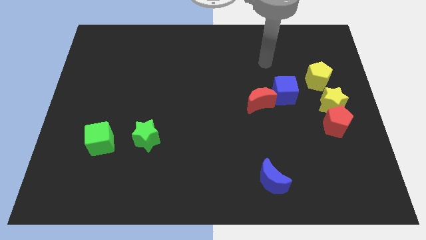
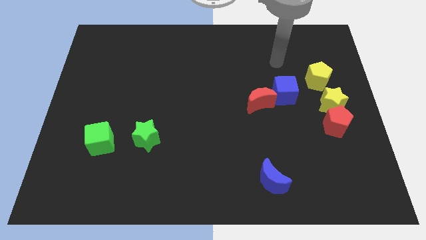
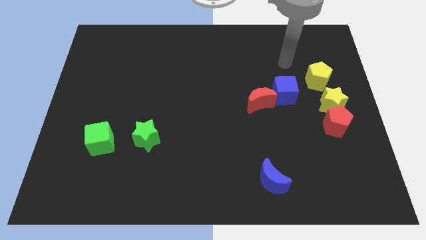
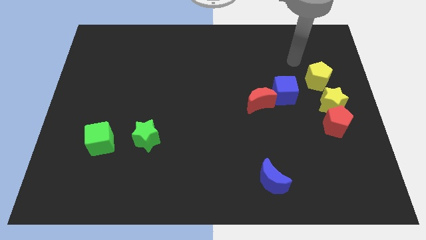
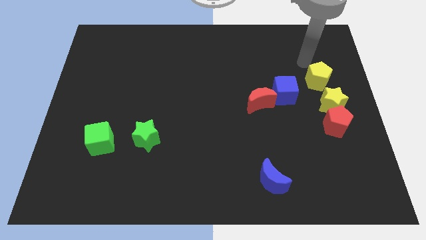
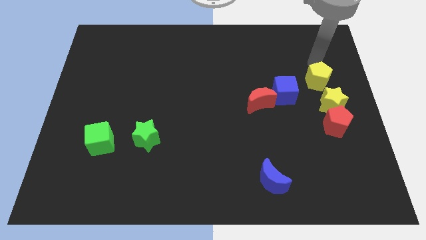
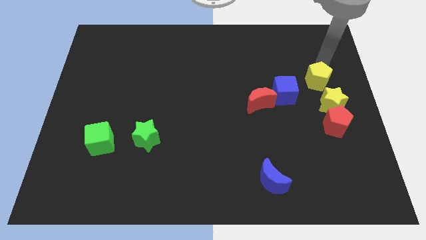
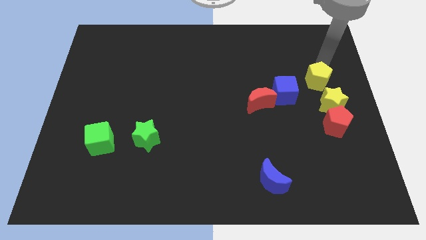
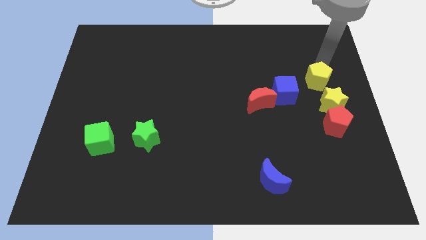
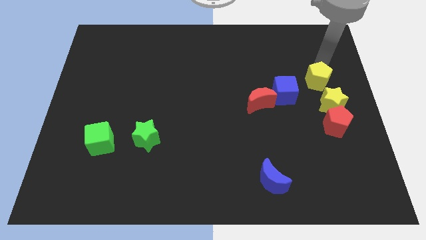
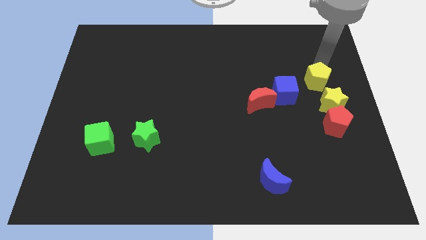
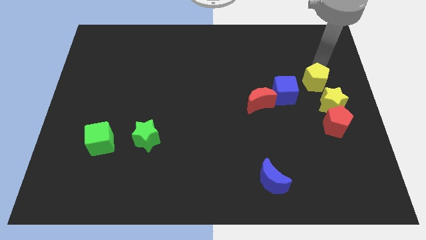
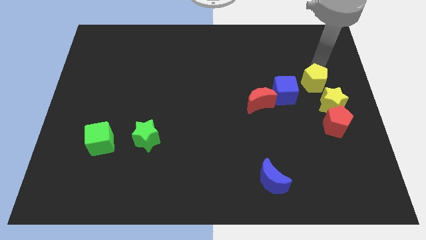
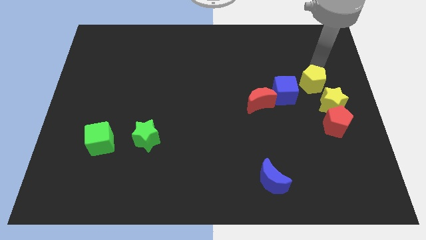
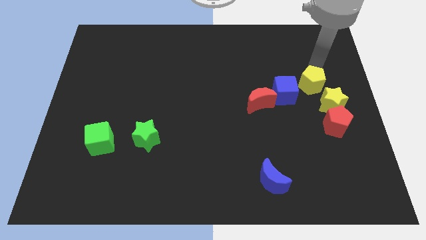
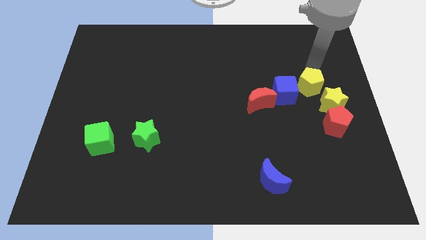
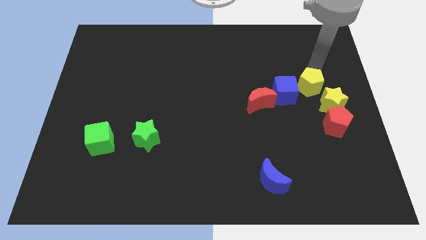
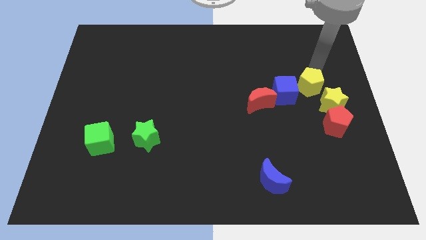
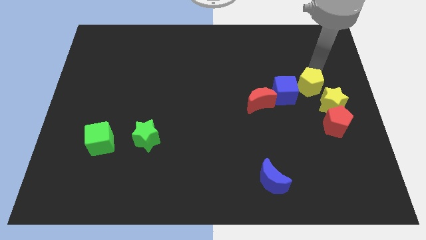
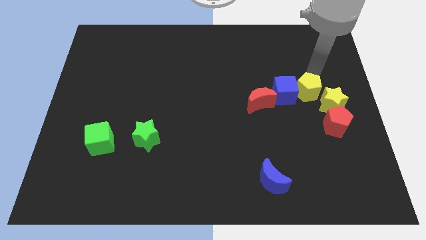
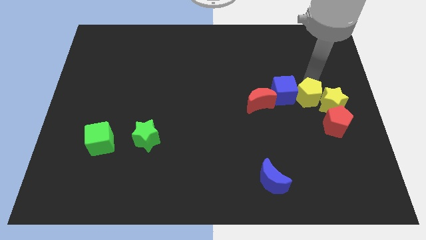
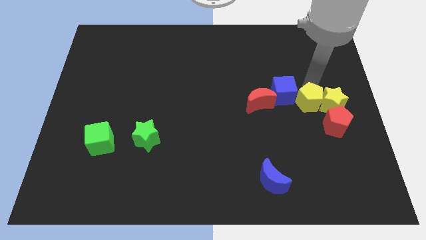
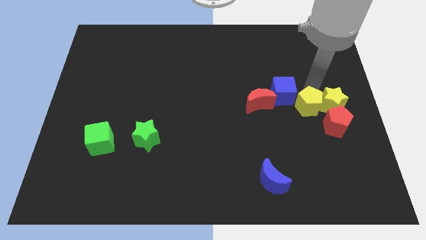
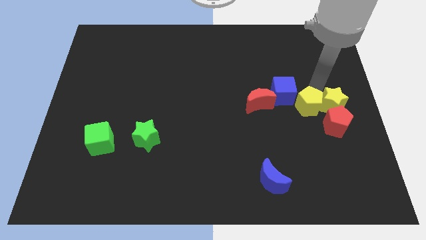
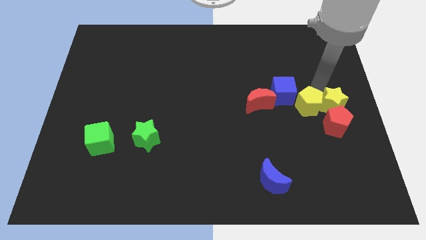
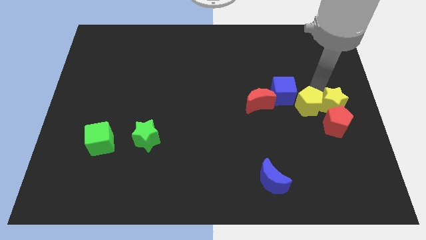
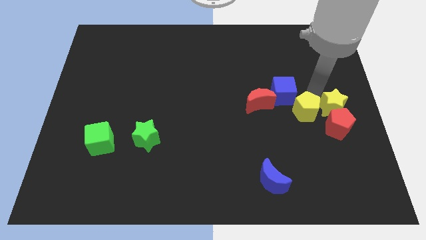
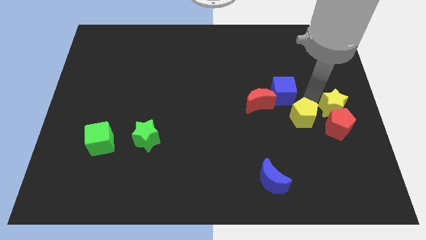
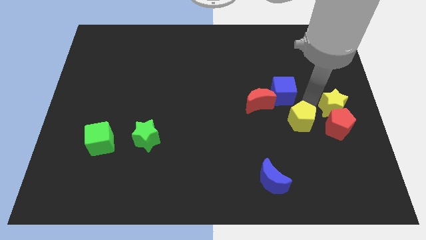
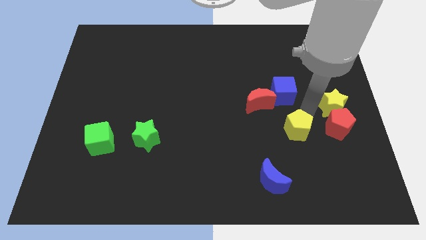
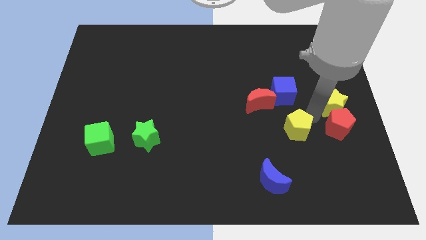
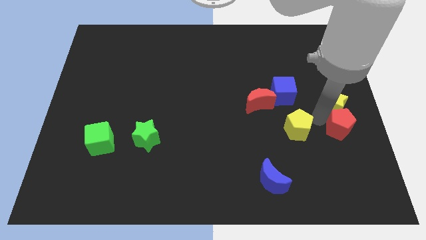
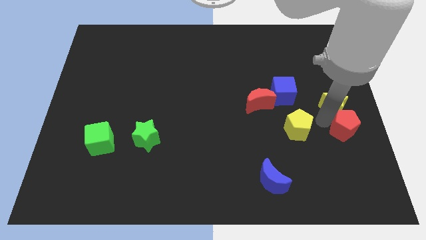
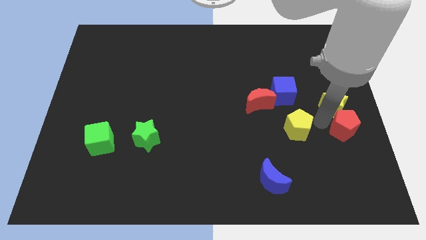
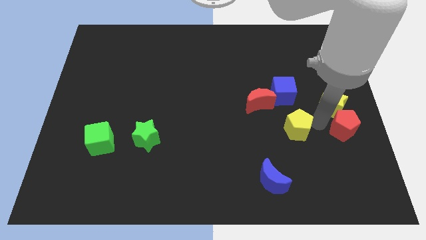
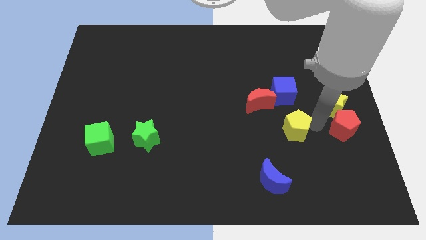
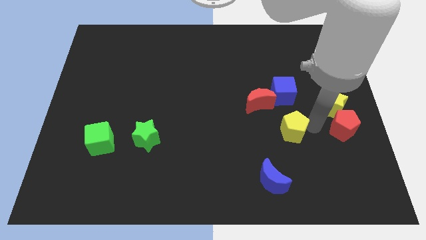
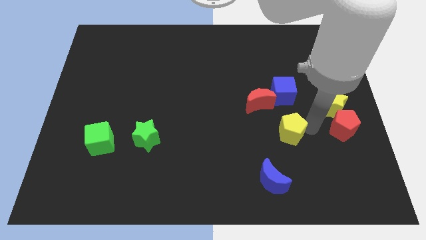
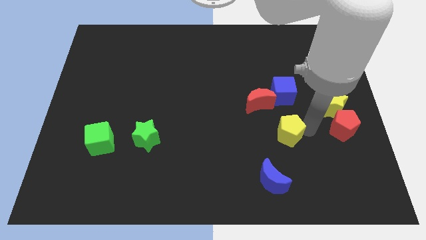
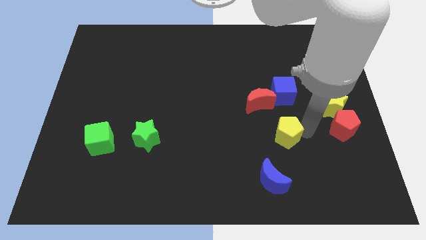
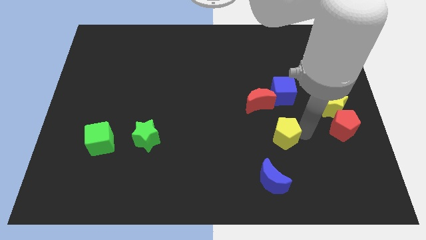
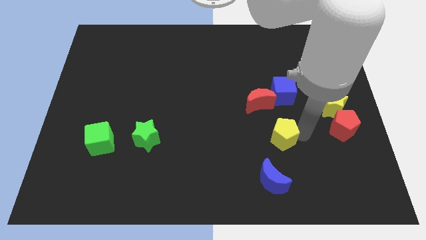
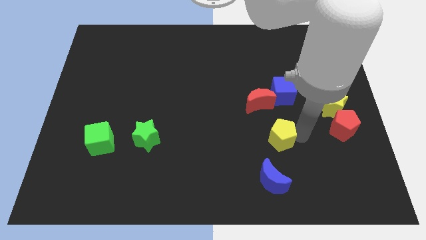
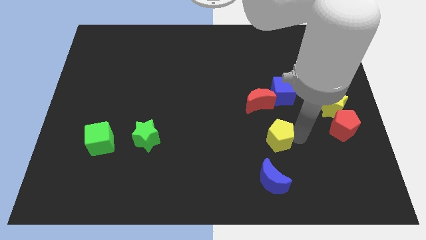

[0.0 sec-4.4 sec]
push the yellow pentagon down and left diagonally

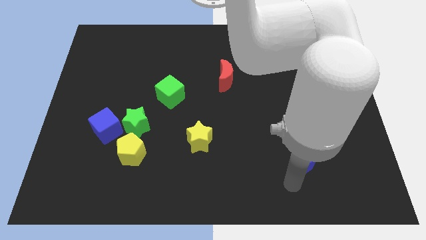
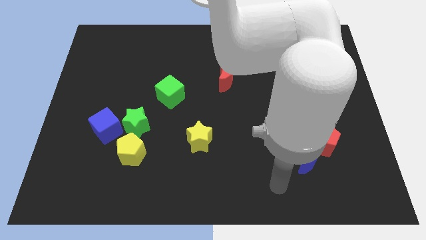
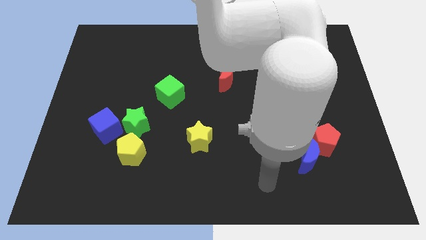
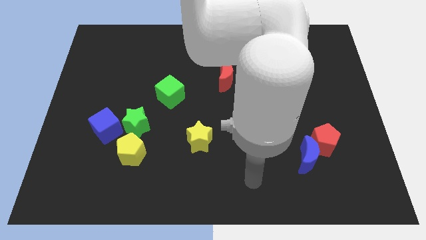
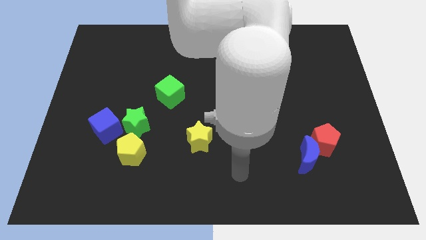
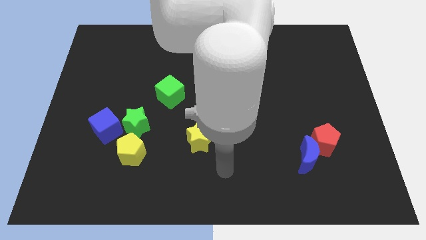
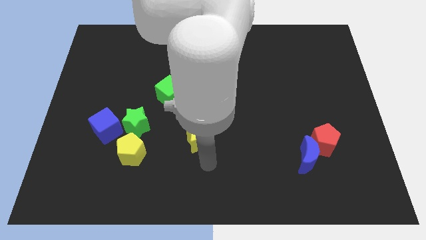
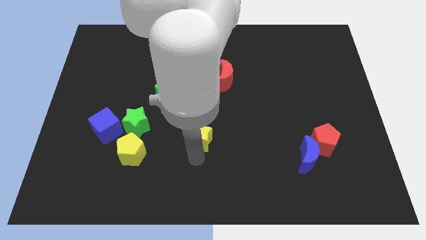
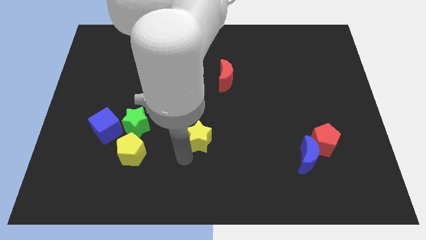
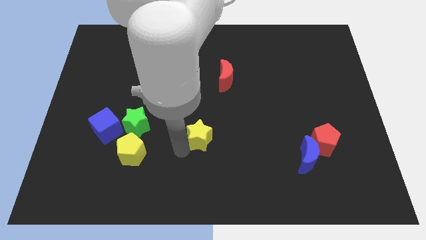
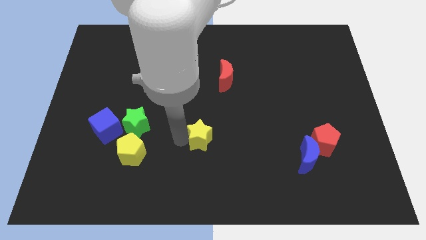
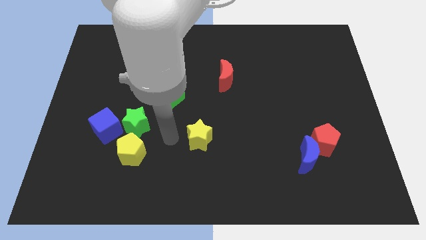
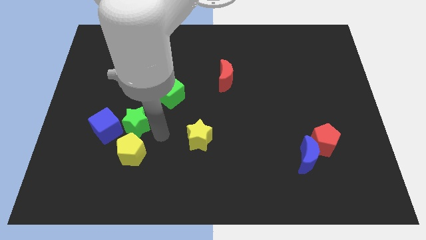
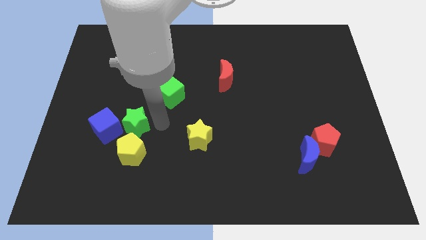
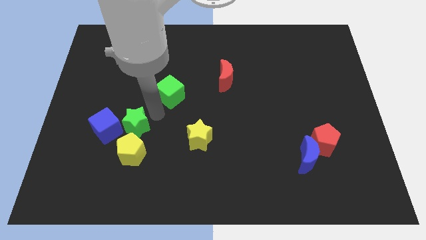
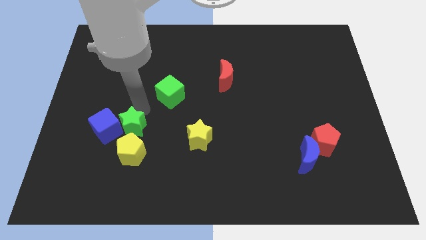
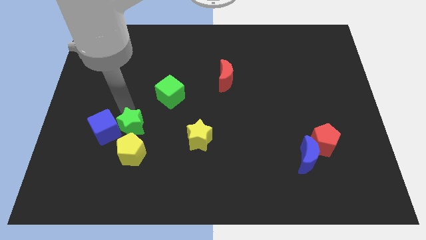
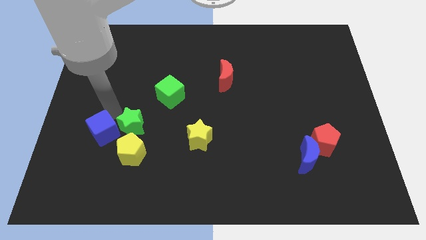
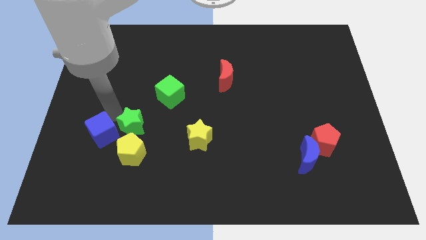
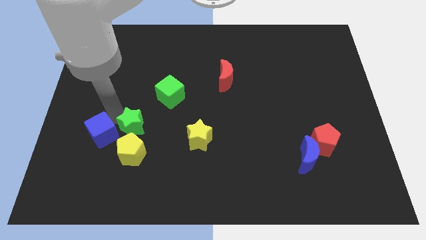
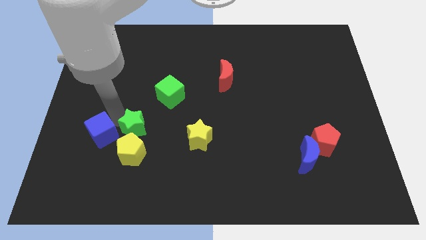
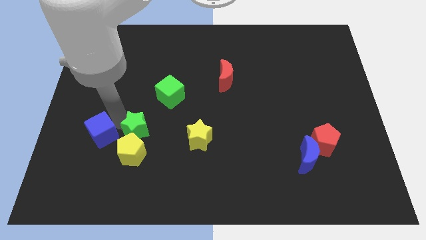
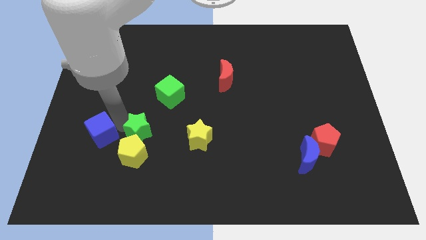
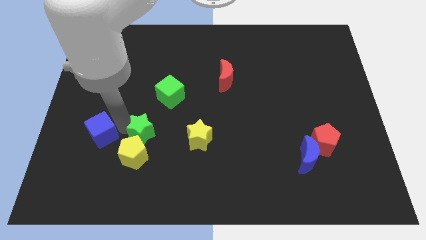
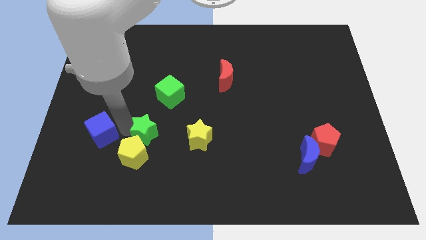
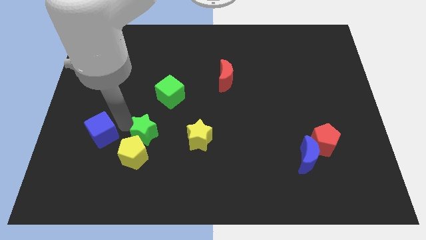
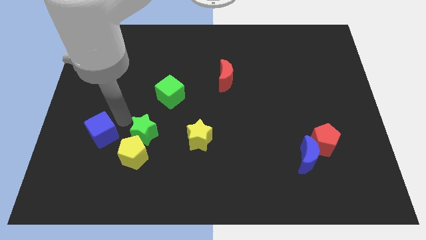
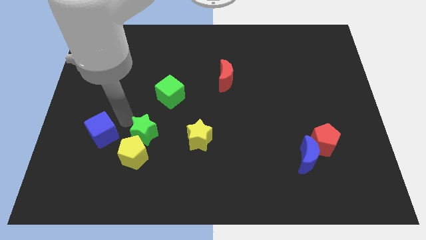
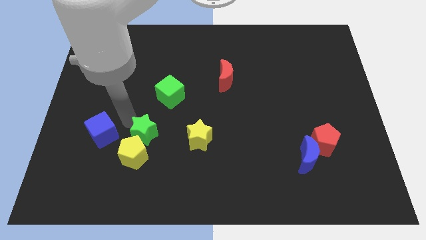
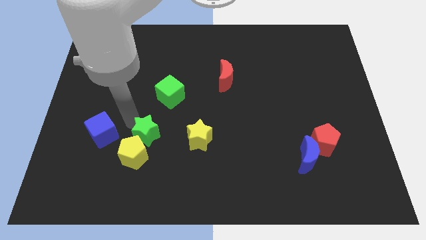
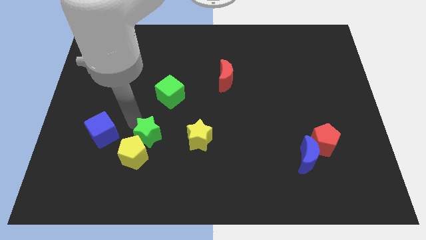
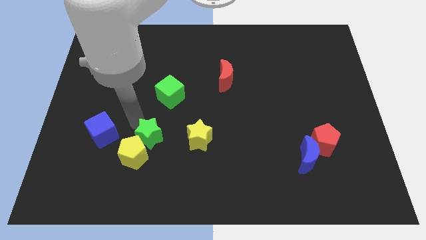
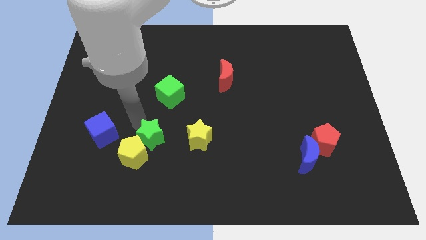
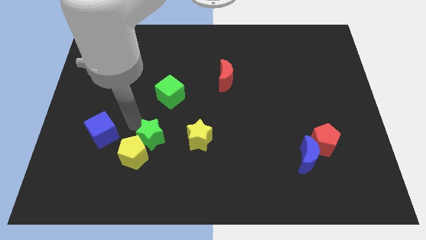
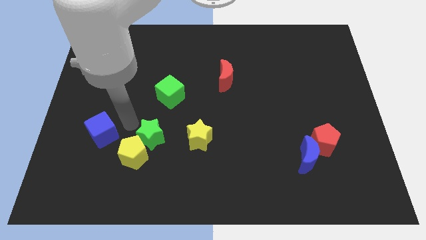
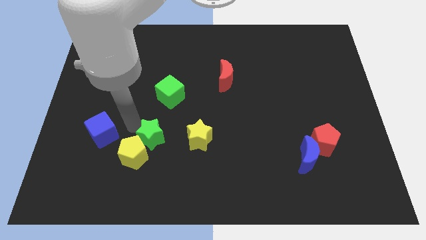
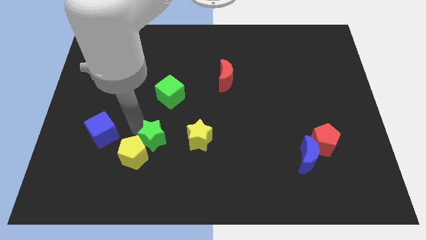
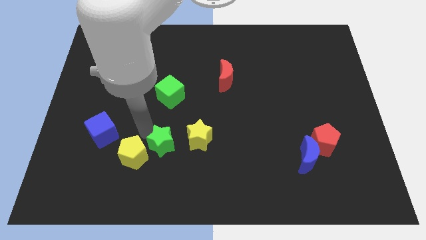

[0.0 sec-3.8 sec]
slightly push the green star diagonally down and right

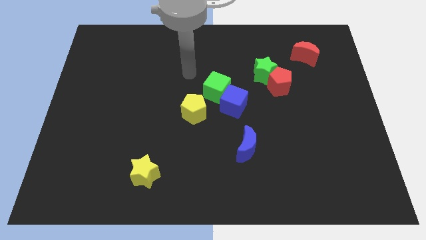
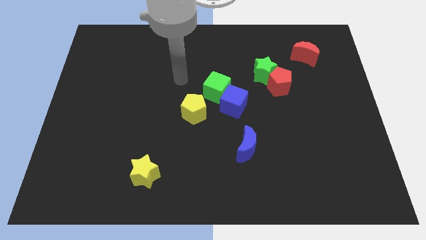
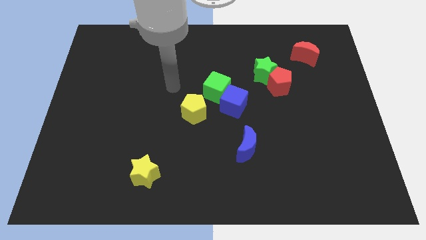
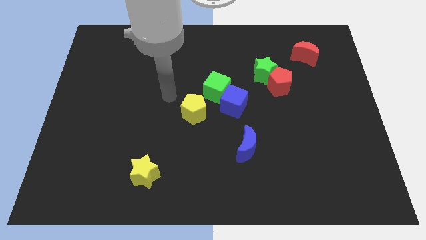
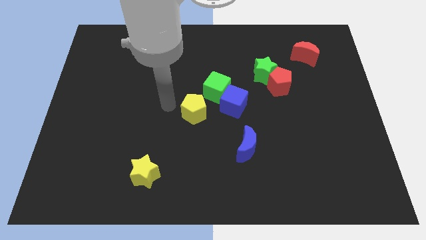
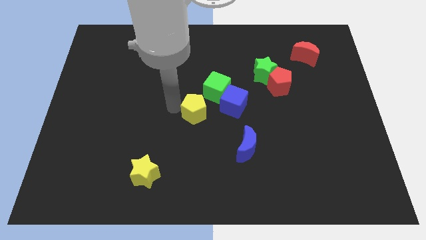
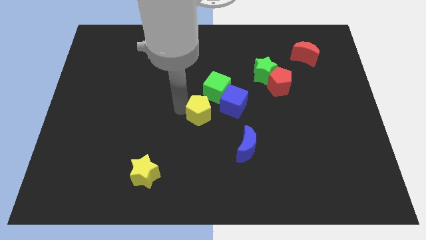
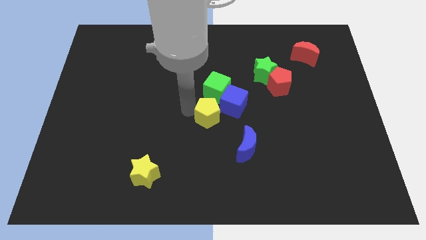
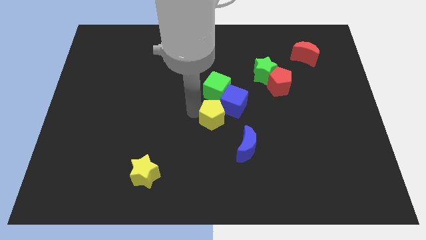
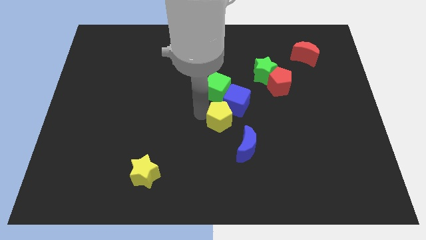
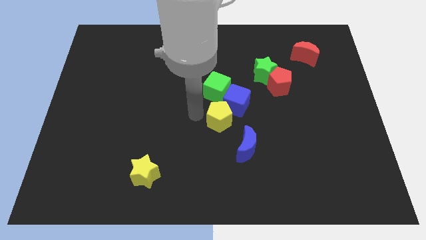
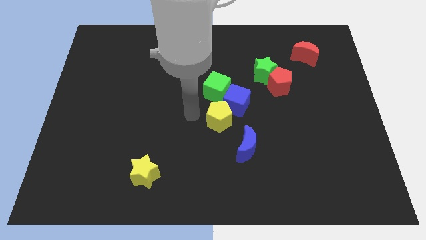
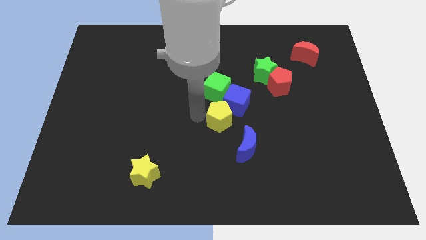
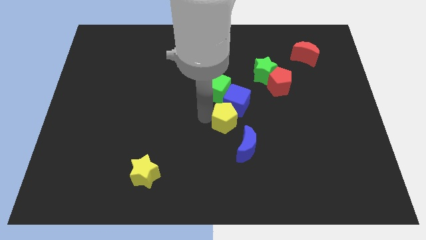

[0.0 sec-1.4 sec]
slightly push the yellow pentagon to the right
